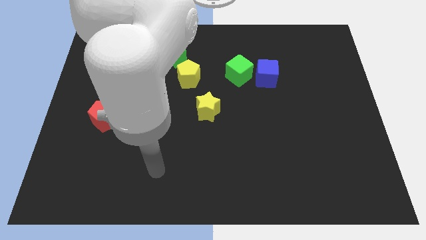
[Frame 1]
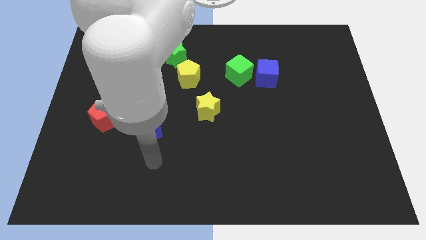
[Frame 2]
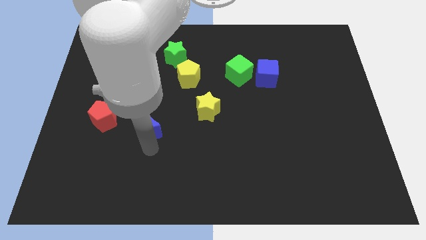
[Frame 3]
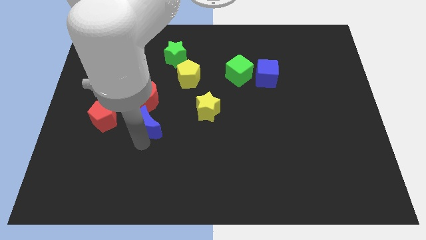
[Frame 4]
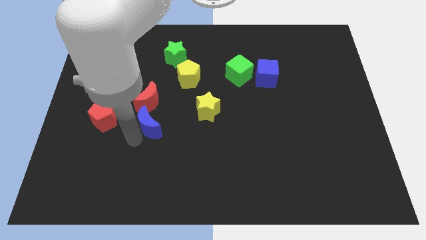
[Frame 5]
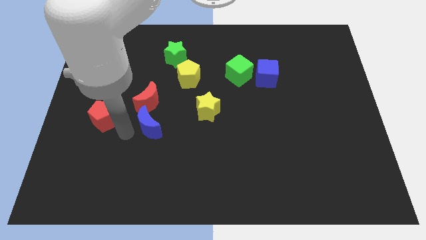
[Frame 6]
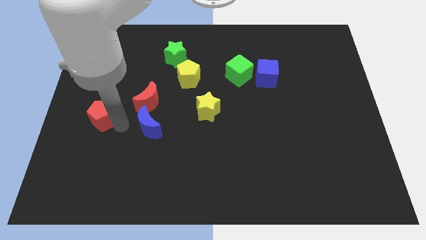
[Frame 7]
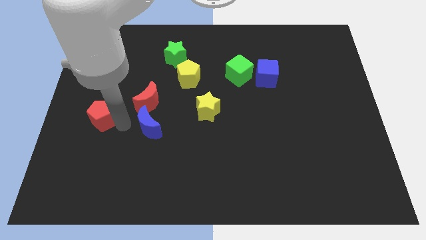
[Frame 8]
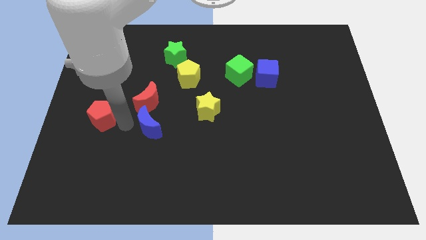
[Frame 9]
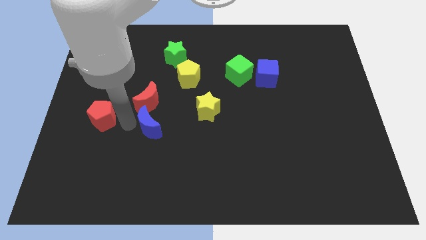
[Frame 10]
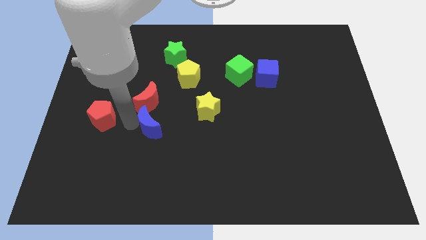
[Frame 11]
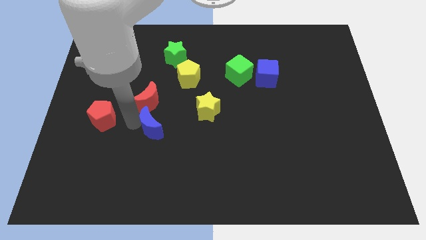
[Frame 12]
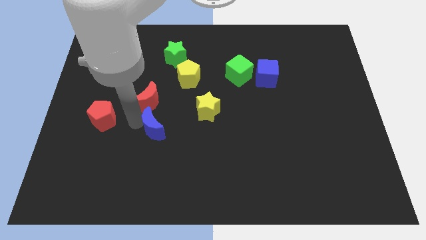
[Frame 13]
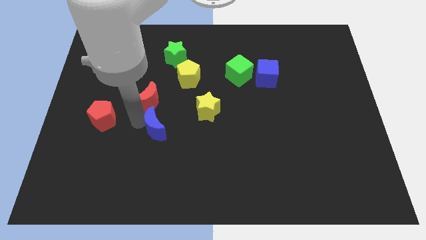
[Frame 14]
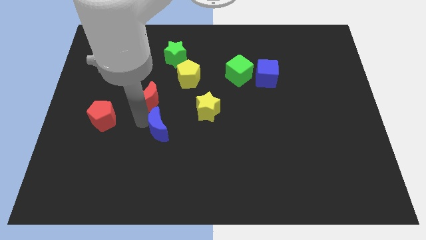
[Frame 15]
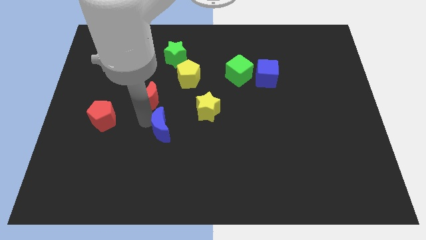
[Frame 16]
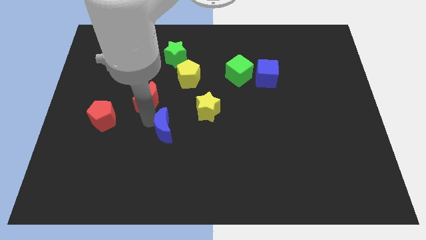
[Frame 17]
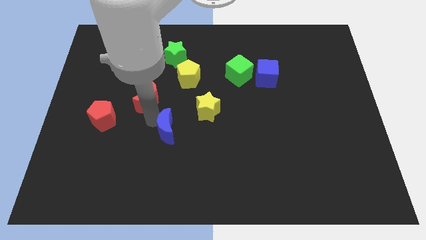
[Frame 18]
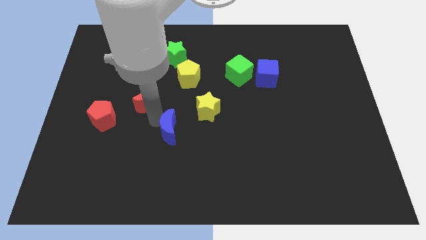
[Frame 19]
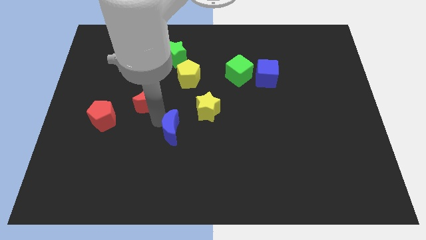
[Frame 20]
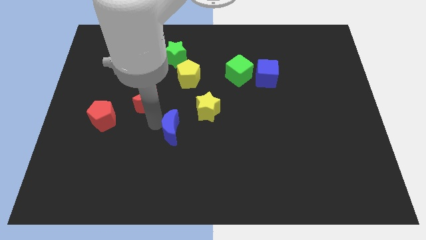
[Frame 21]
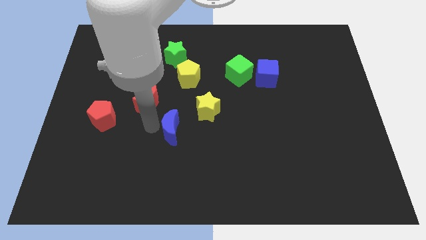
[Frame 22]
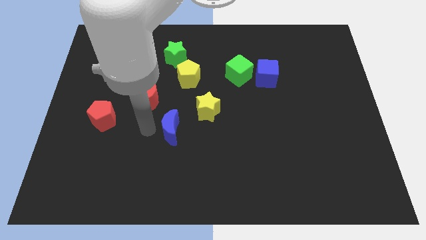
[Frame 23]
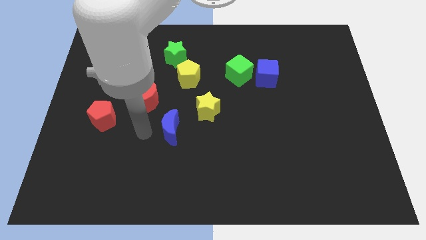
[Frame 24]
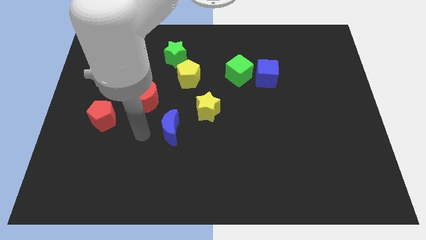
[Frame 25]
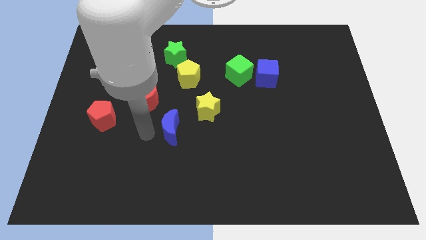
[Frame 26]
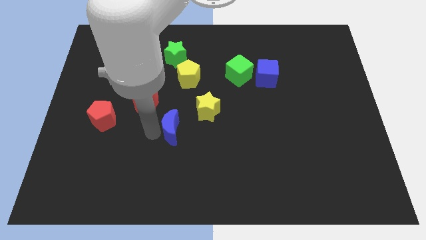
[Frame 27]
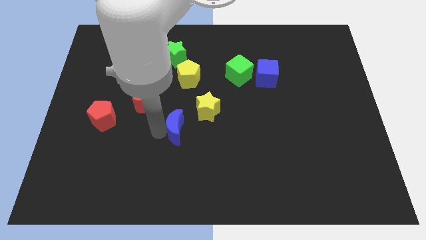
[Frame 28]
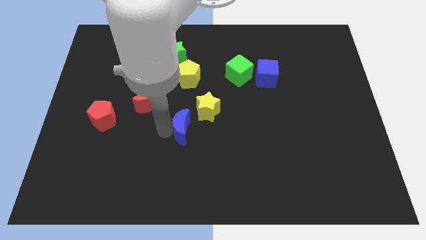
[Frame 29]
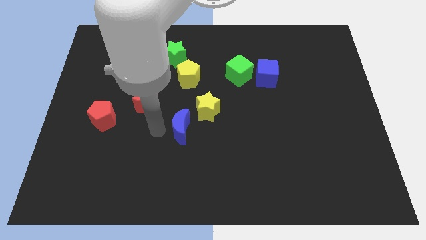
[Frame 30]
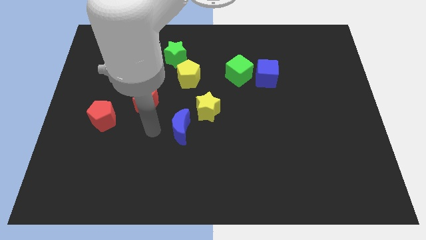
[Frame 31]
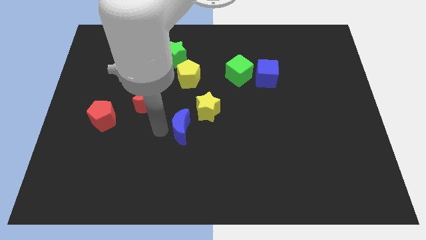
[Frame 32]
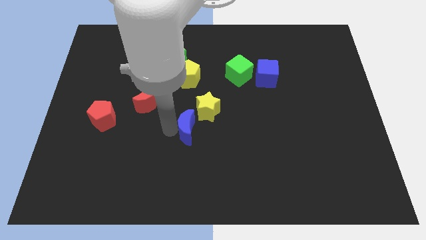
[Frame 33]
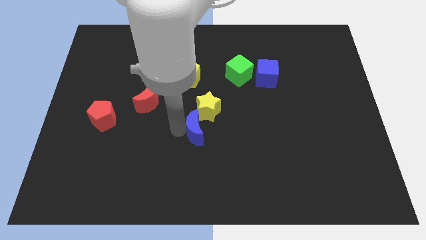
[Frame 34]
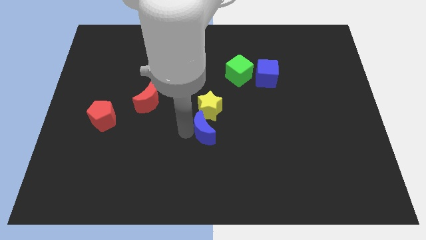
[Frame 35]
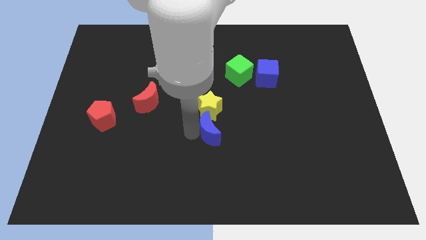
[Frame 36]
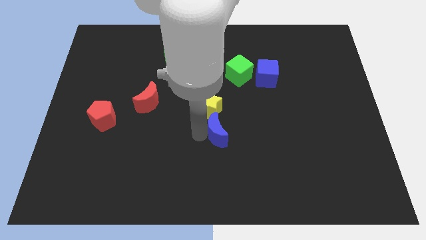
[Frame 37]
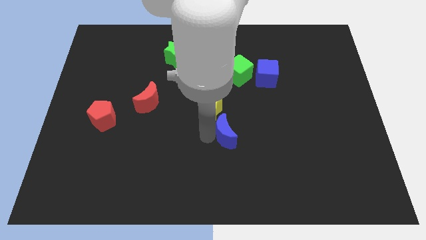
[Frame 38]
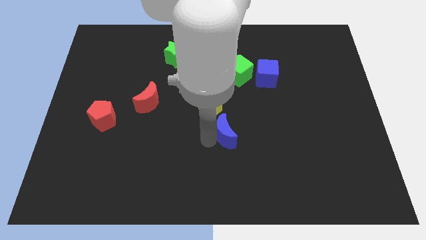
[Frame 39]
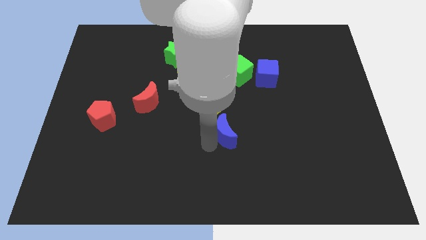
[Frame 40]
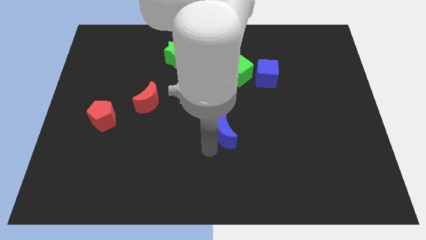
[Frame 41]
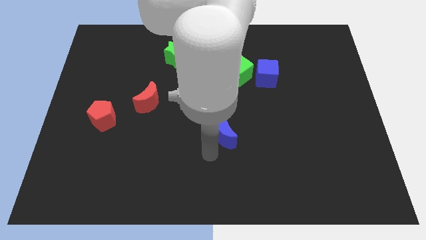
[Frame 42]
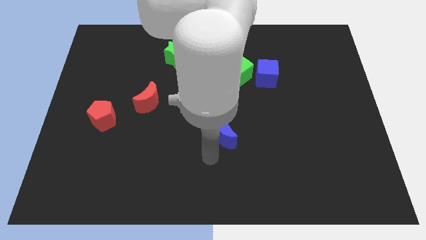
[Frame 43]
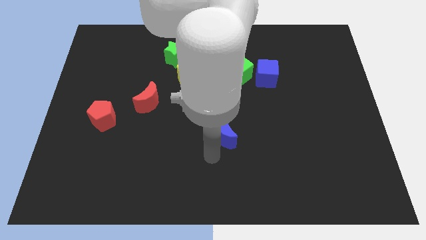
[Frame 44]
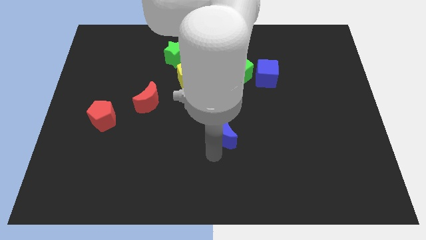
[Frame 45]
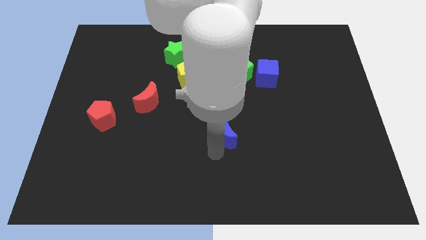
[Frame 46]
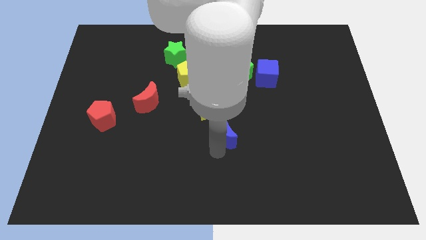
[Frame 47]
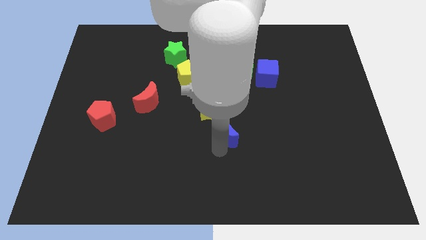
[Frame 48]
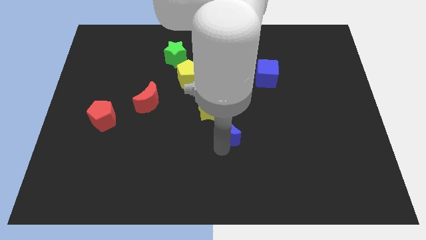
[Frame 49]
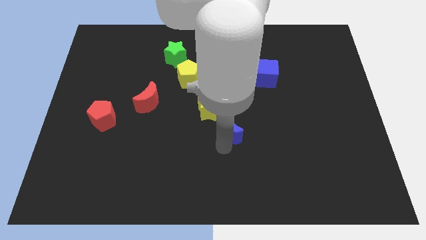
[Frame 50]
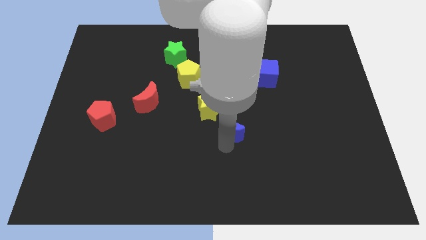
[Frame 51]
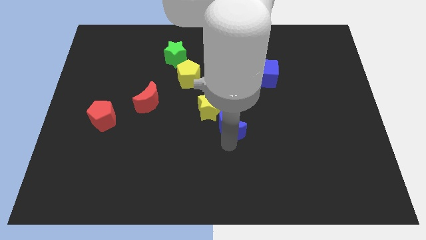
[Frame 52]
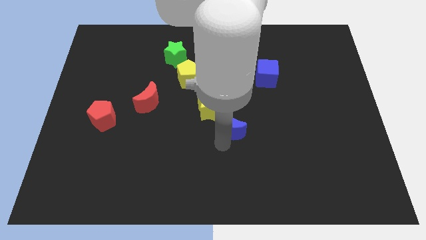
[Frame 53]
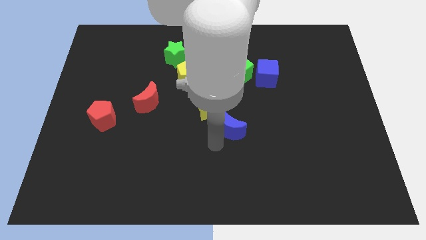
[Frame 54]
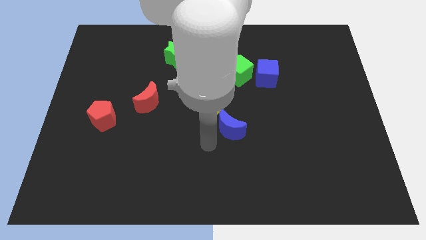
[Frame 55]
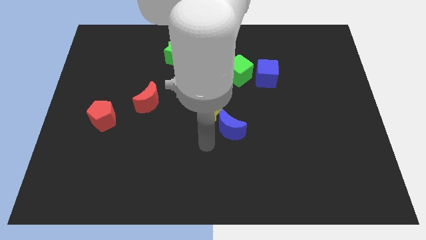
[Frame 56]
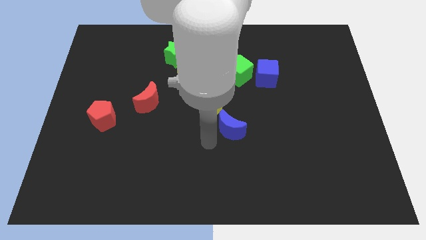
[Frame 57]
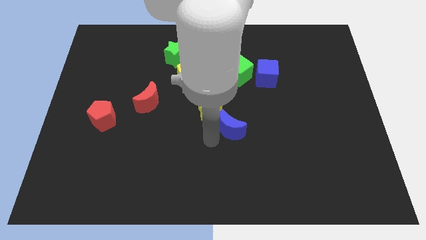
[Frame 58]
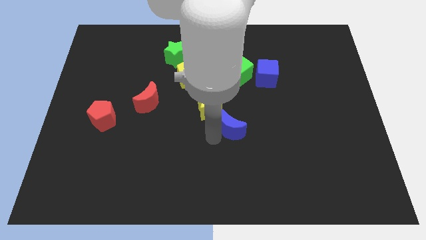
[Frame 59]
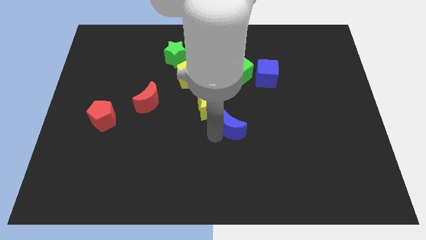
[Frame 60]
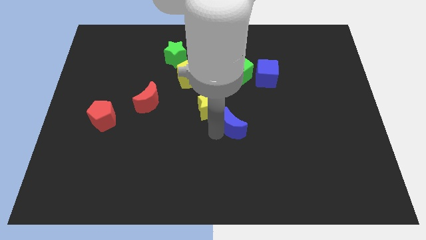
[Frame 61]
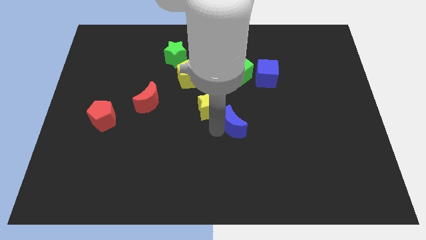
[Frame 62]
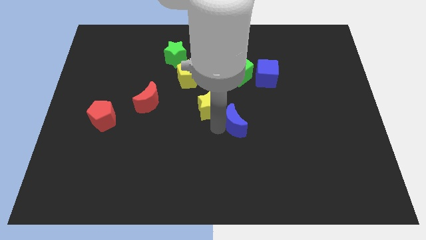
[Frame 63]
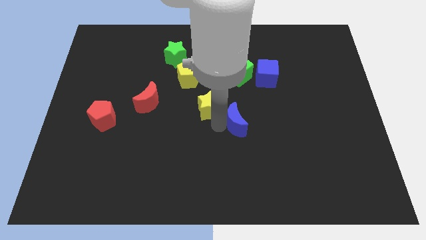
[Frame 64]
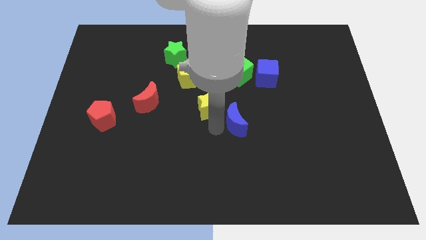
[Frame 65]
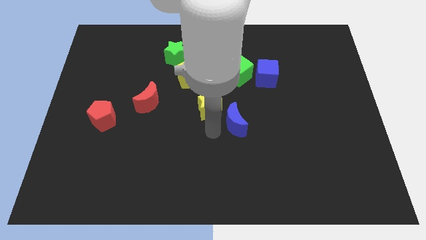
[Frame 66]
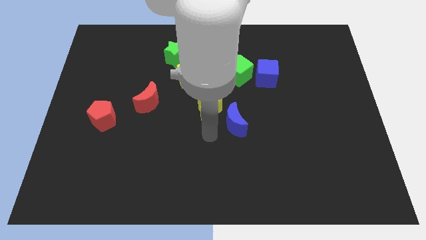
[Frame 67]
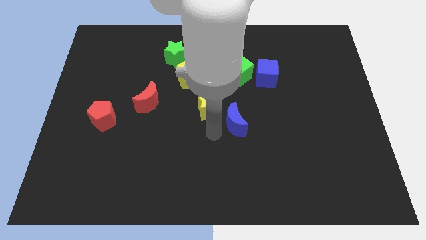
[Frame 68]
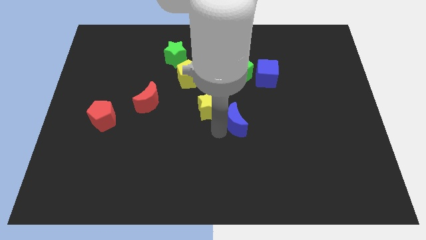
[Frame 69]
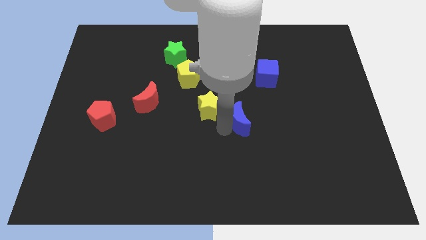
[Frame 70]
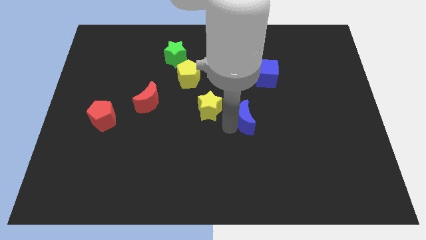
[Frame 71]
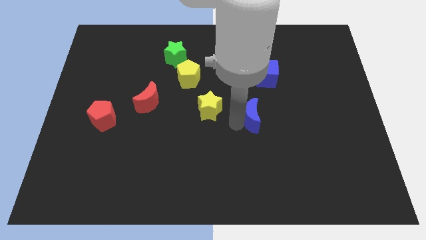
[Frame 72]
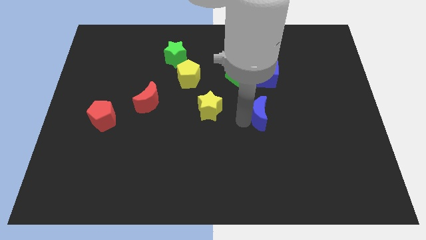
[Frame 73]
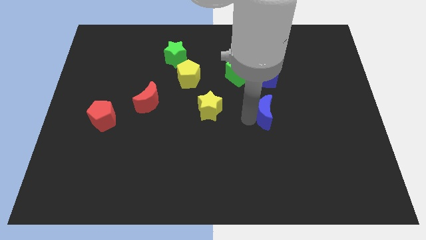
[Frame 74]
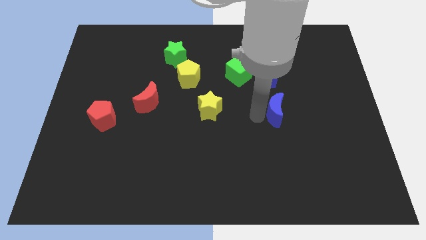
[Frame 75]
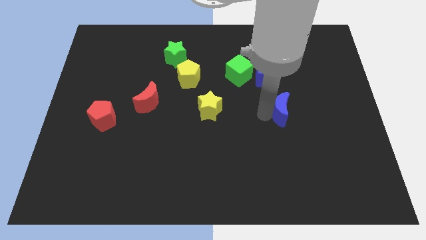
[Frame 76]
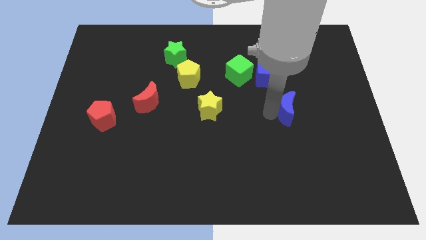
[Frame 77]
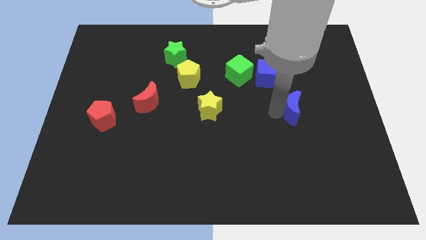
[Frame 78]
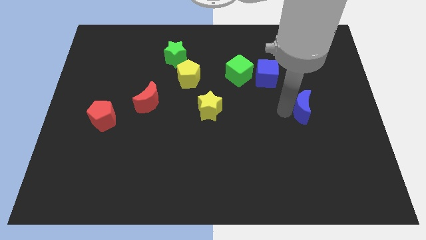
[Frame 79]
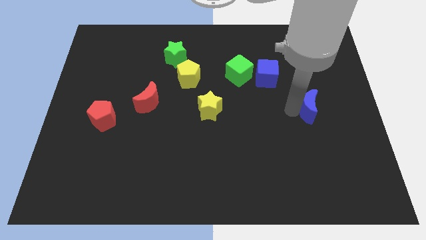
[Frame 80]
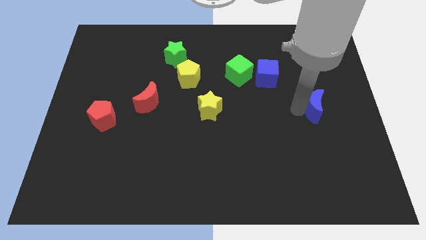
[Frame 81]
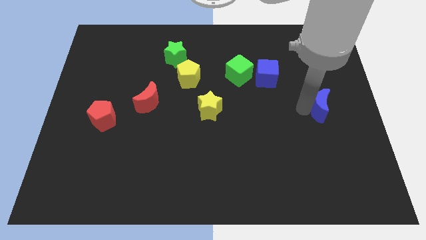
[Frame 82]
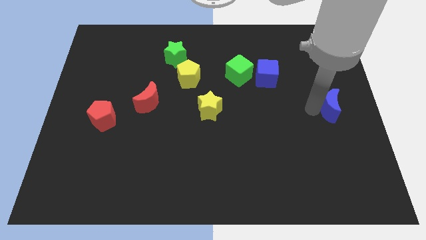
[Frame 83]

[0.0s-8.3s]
move the blue moon to the center right
